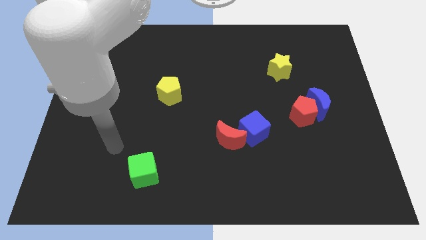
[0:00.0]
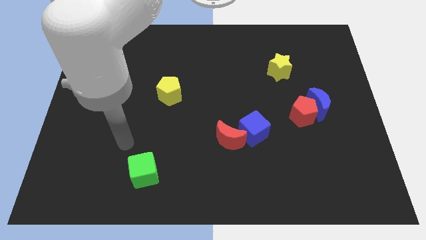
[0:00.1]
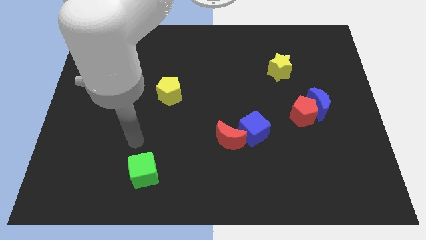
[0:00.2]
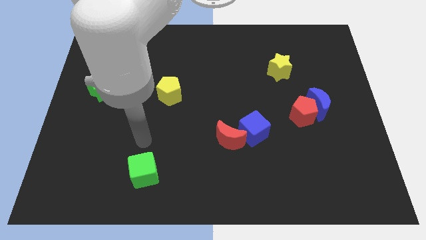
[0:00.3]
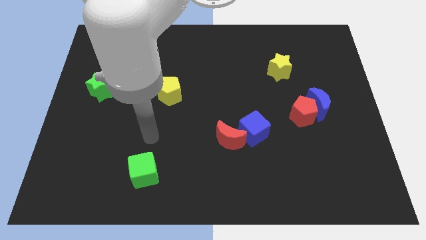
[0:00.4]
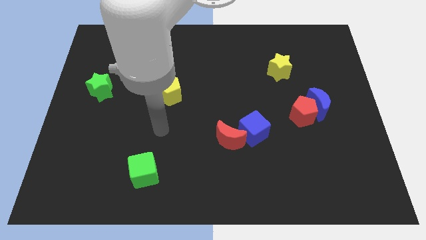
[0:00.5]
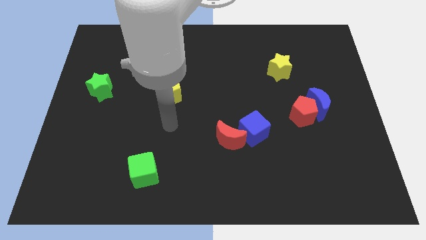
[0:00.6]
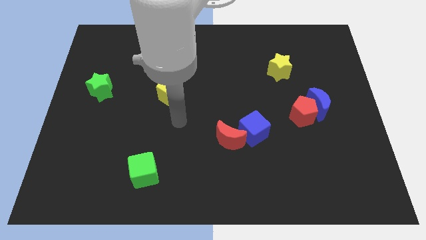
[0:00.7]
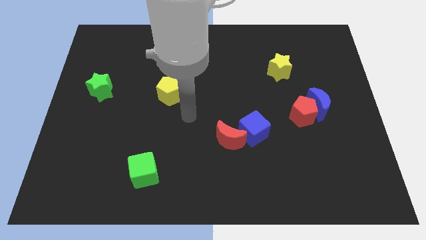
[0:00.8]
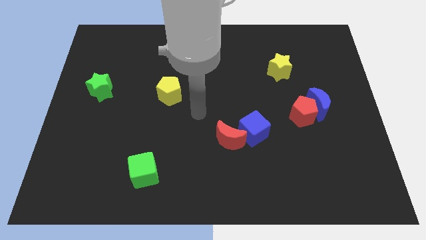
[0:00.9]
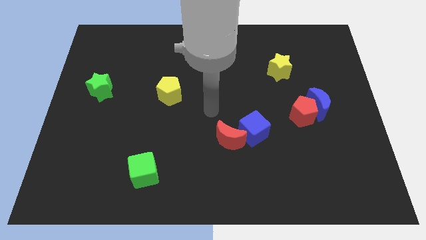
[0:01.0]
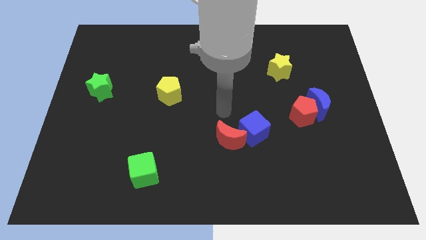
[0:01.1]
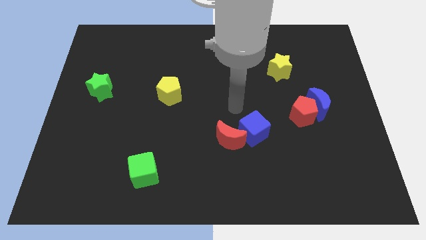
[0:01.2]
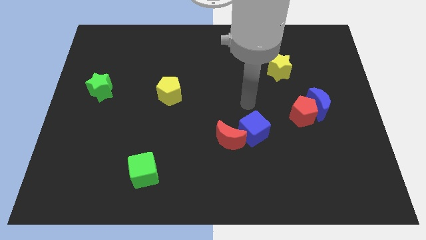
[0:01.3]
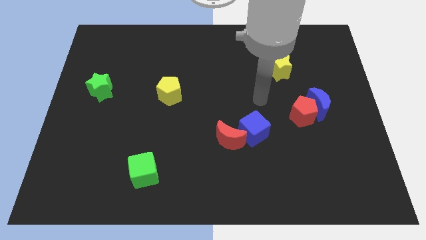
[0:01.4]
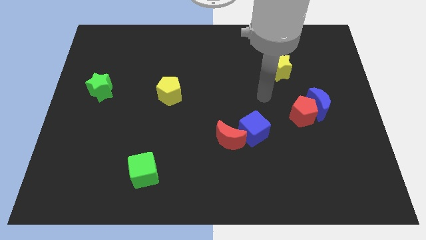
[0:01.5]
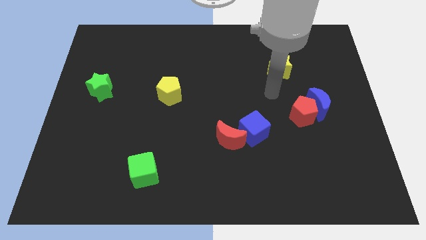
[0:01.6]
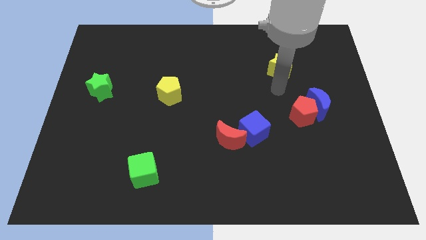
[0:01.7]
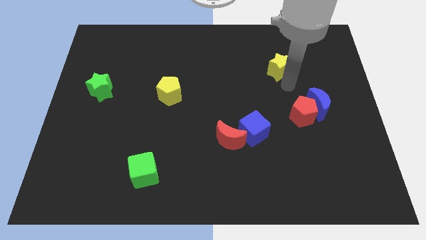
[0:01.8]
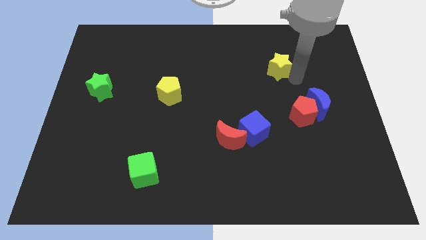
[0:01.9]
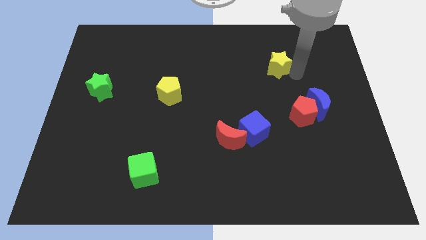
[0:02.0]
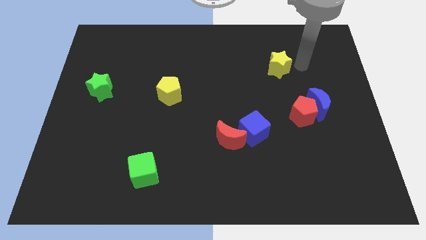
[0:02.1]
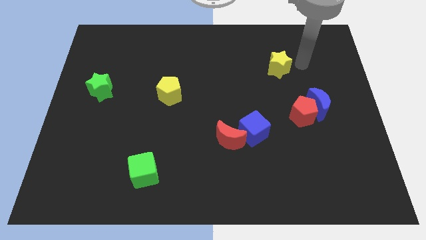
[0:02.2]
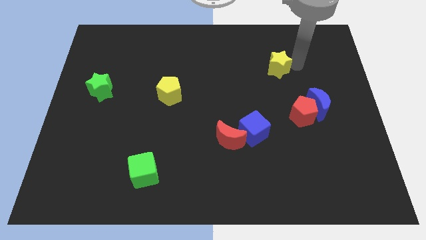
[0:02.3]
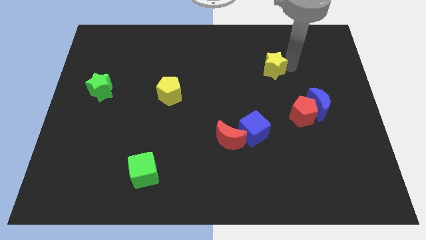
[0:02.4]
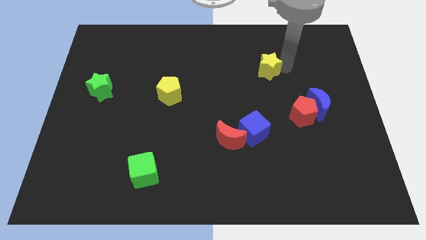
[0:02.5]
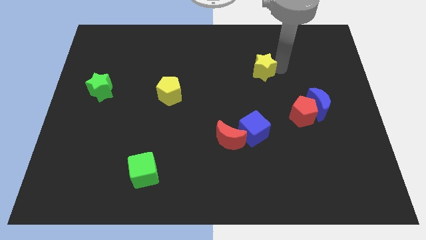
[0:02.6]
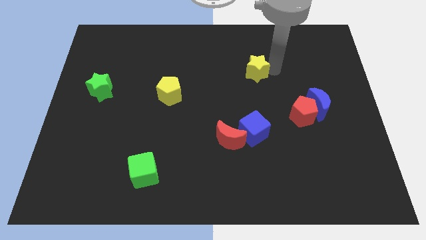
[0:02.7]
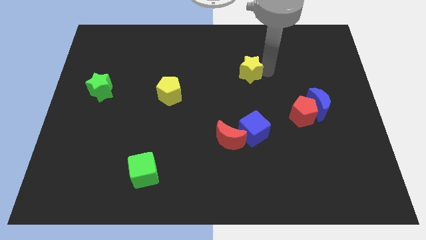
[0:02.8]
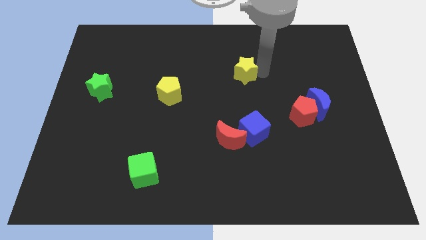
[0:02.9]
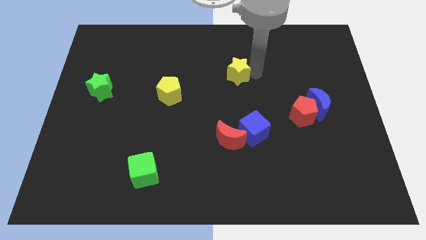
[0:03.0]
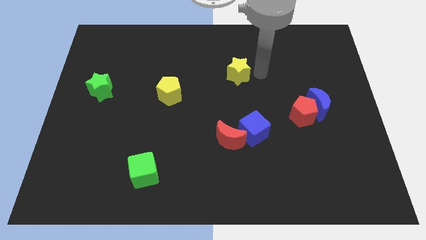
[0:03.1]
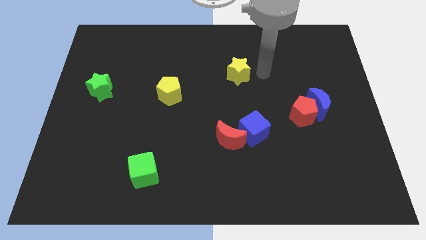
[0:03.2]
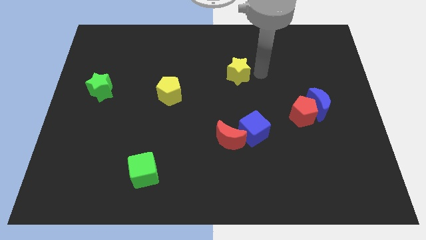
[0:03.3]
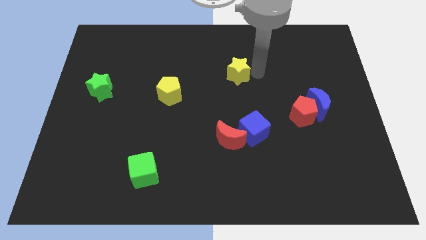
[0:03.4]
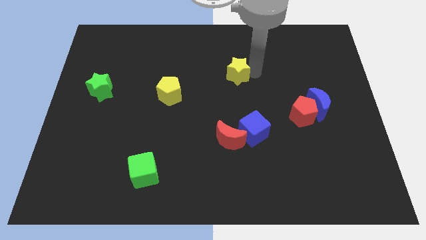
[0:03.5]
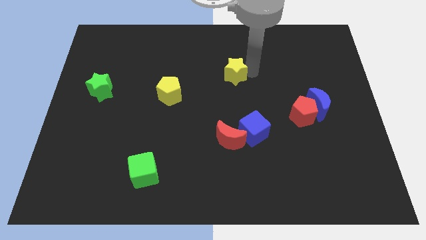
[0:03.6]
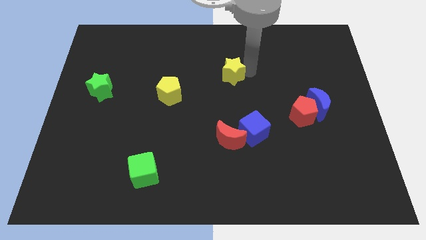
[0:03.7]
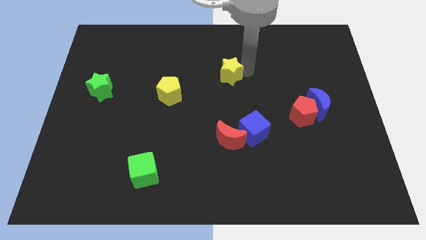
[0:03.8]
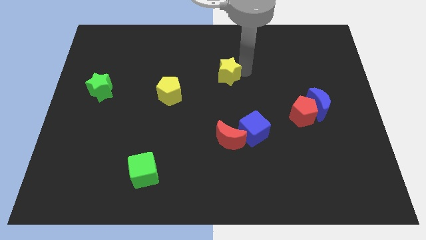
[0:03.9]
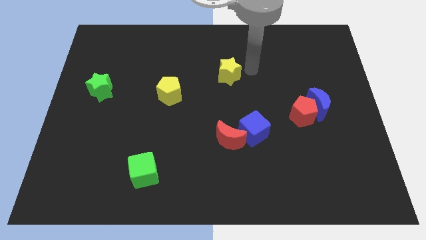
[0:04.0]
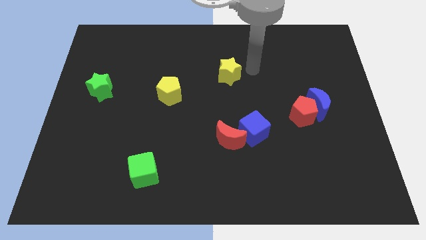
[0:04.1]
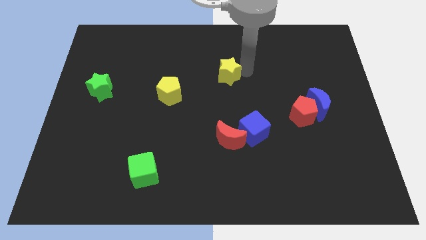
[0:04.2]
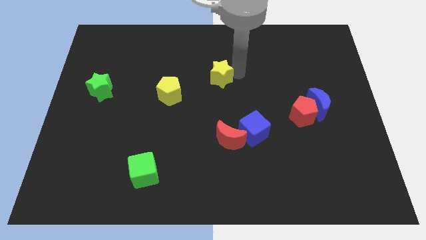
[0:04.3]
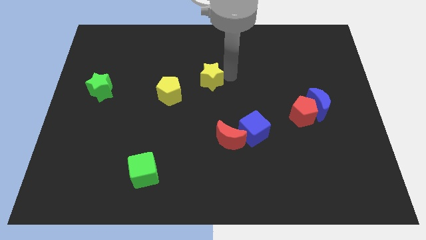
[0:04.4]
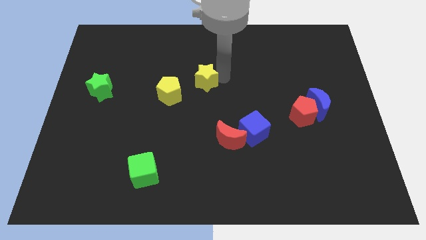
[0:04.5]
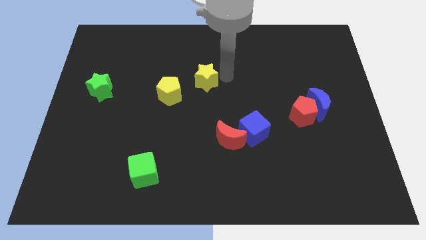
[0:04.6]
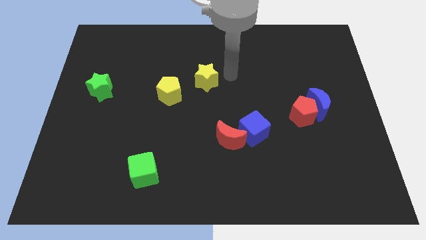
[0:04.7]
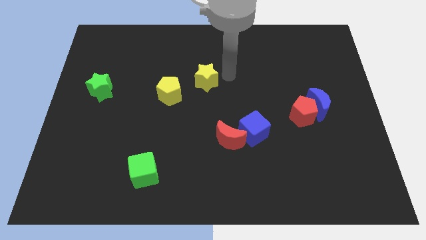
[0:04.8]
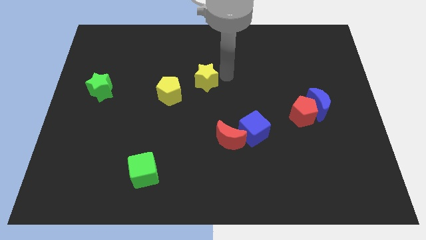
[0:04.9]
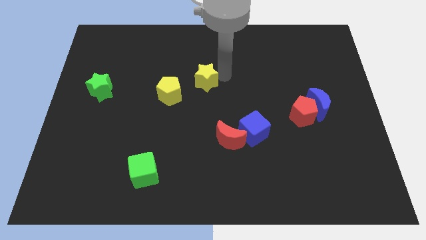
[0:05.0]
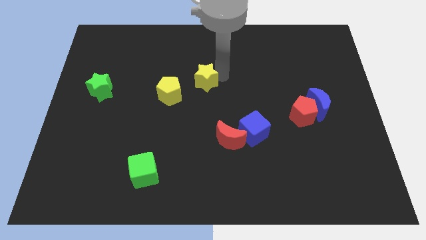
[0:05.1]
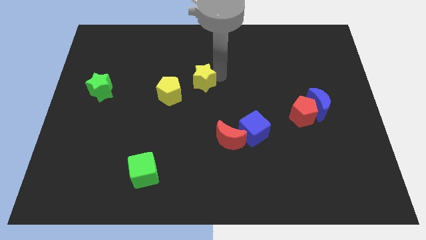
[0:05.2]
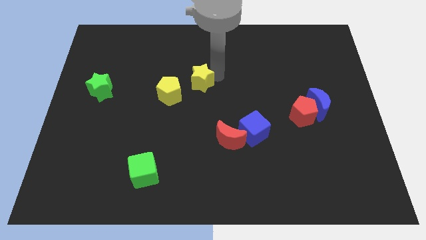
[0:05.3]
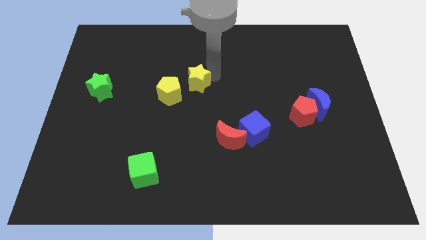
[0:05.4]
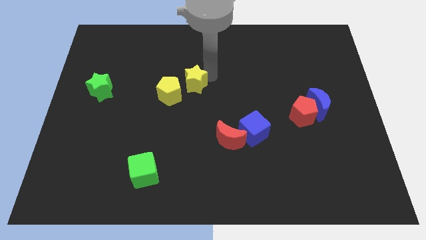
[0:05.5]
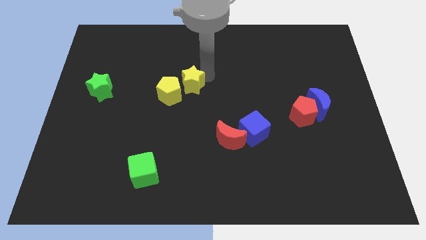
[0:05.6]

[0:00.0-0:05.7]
move the yellow star to the yellow pentagon

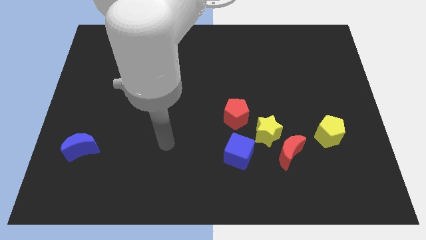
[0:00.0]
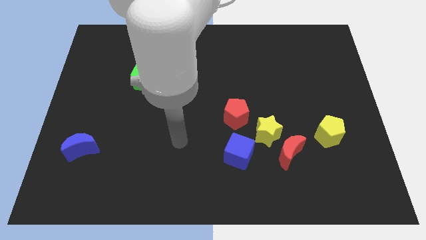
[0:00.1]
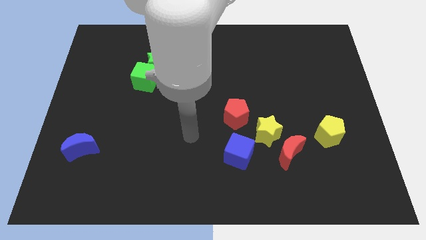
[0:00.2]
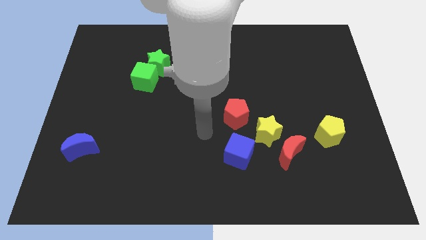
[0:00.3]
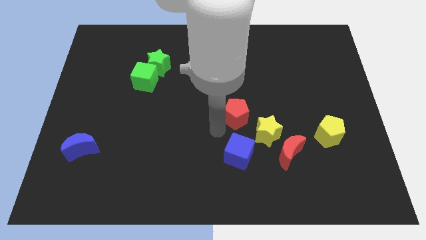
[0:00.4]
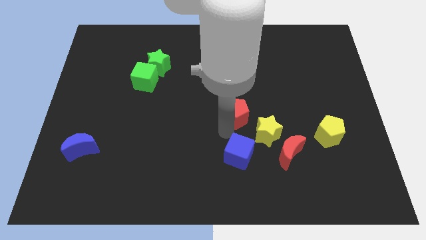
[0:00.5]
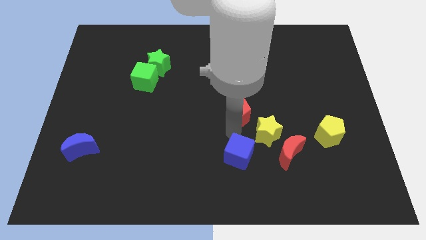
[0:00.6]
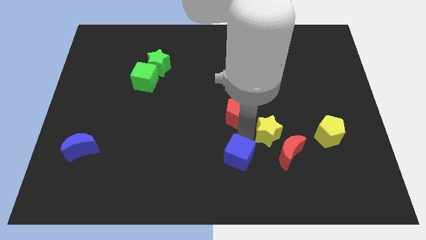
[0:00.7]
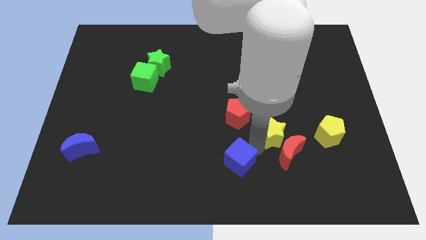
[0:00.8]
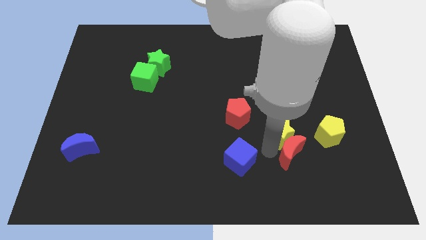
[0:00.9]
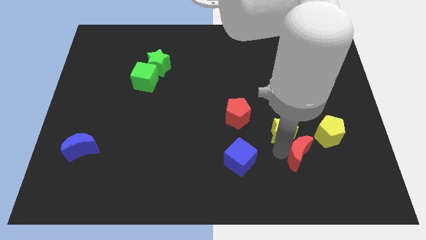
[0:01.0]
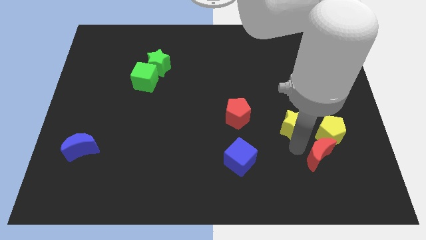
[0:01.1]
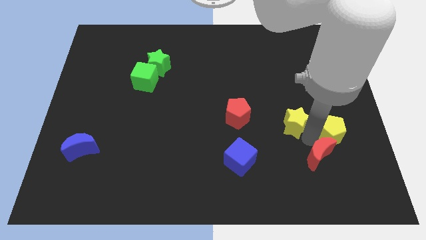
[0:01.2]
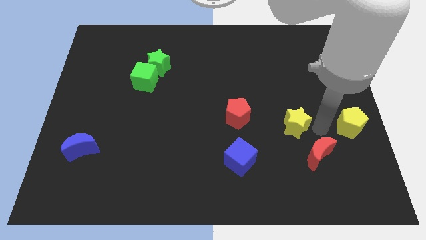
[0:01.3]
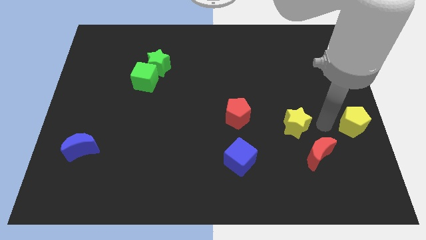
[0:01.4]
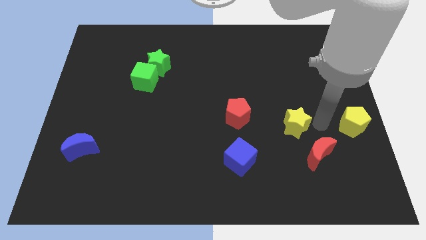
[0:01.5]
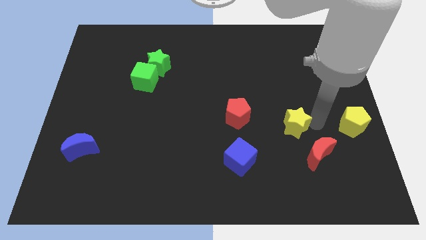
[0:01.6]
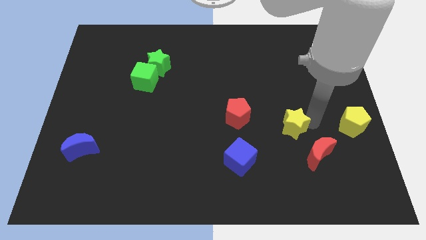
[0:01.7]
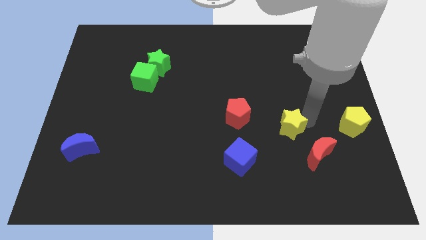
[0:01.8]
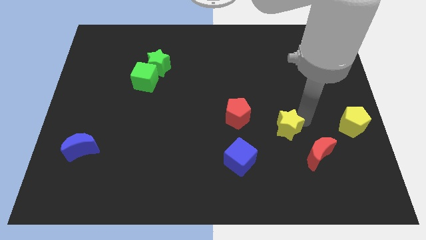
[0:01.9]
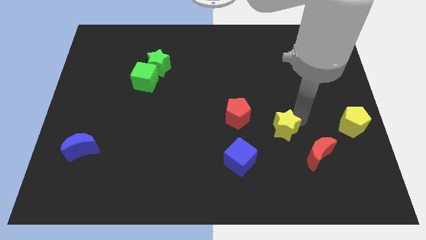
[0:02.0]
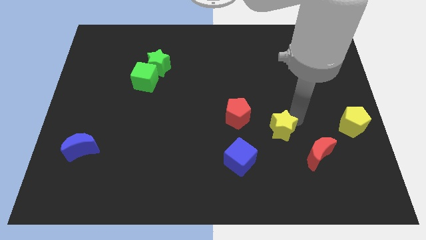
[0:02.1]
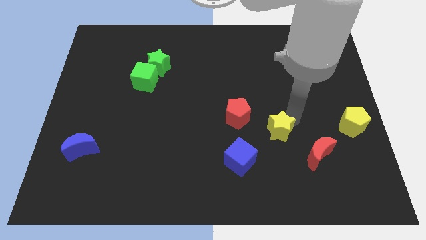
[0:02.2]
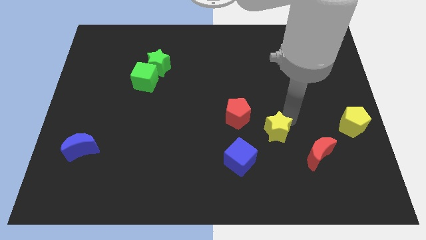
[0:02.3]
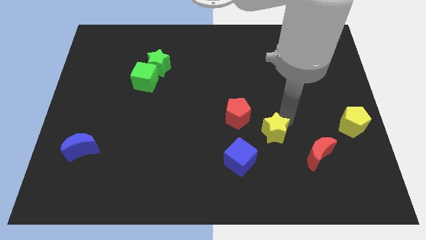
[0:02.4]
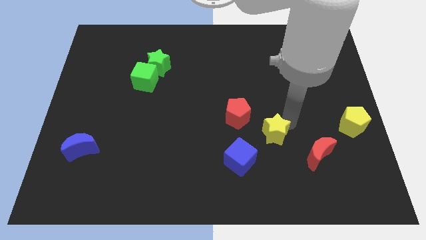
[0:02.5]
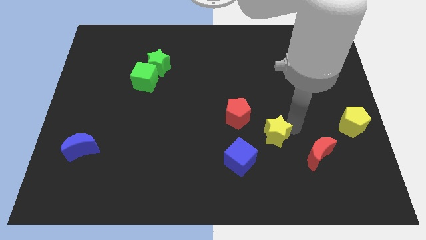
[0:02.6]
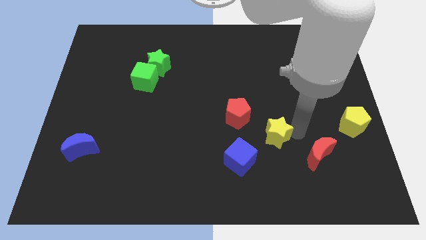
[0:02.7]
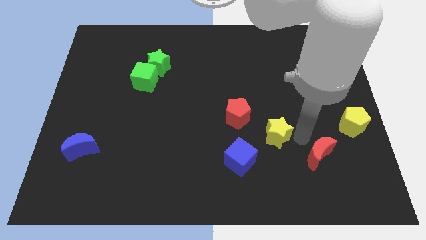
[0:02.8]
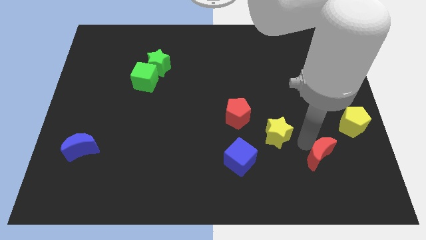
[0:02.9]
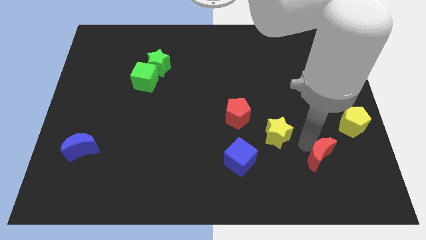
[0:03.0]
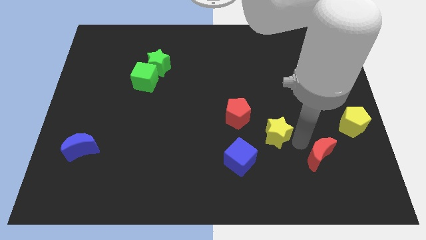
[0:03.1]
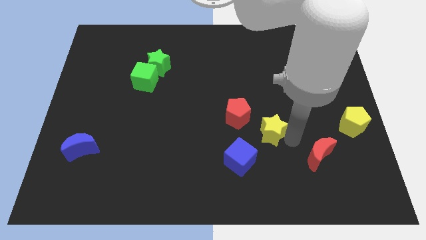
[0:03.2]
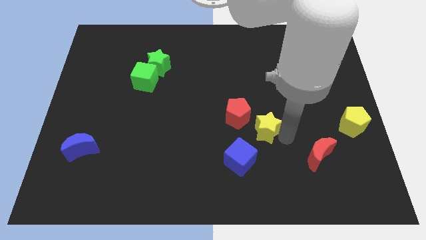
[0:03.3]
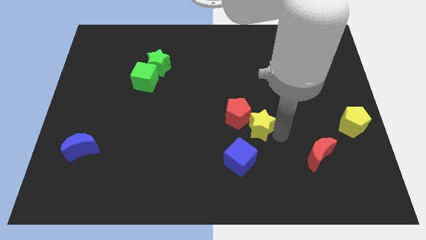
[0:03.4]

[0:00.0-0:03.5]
move the yellow star to the red pentagon
